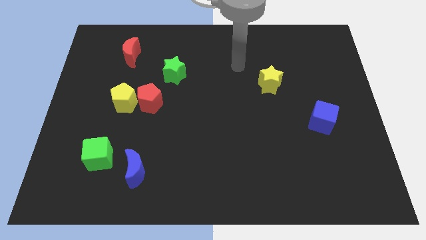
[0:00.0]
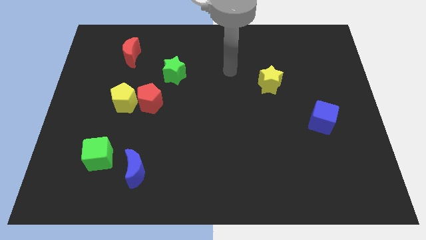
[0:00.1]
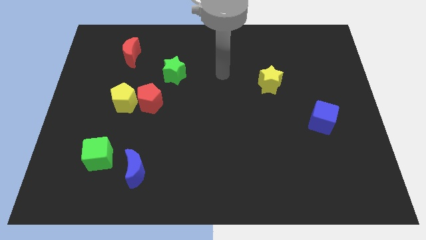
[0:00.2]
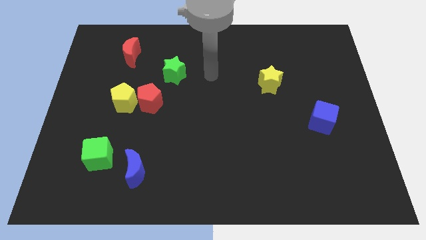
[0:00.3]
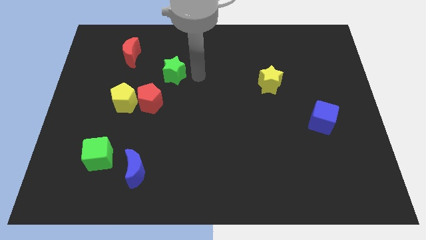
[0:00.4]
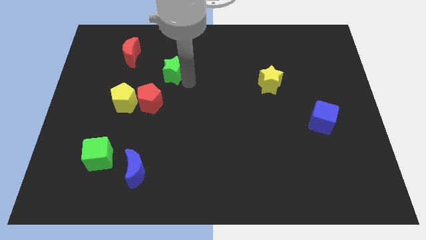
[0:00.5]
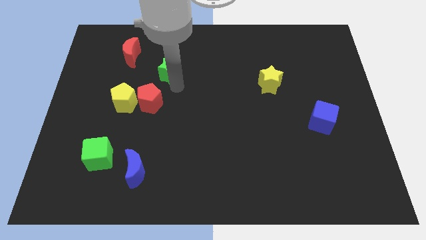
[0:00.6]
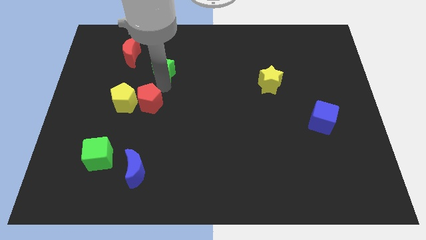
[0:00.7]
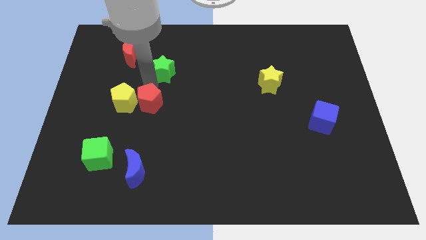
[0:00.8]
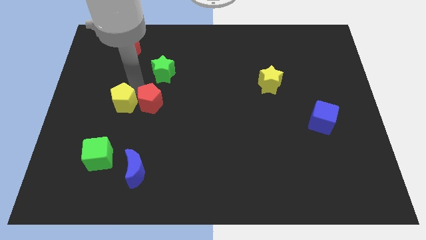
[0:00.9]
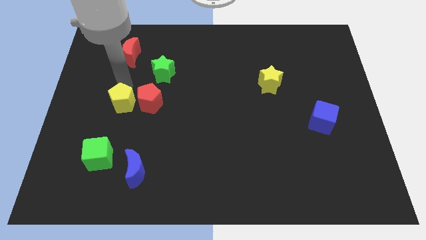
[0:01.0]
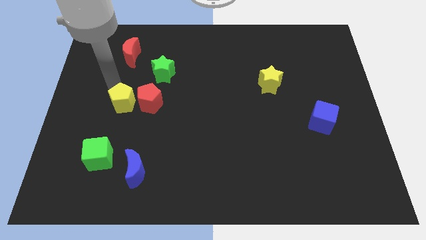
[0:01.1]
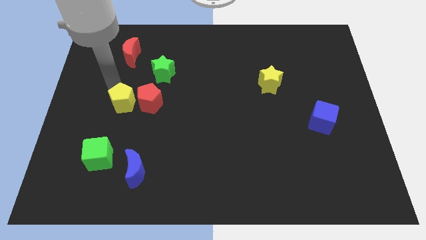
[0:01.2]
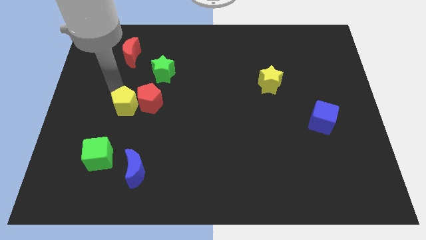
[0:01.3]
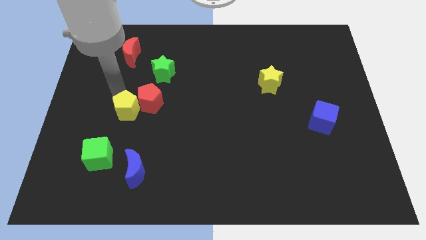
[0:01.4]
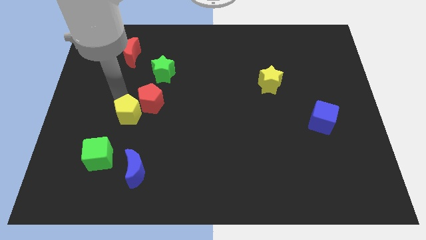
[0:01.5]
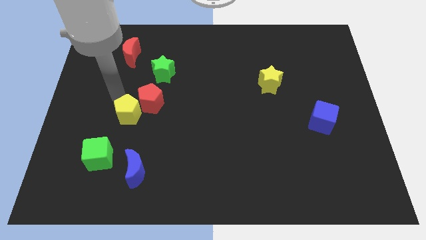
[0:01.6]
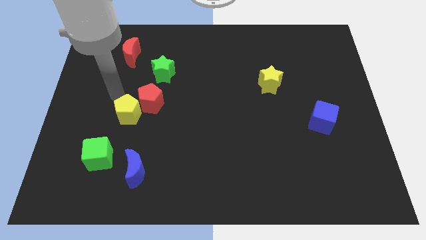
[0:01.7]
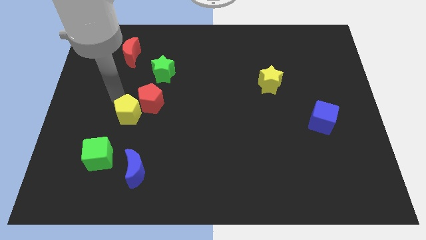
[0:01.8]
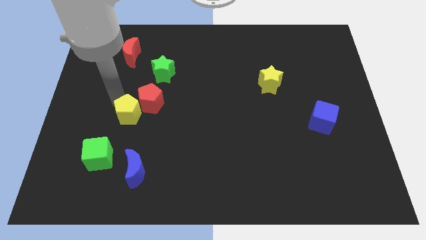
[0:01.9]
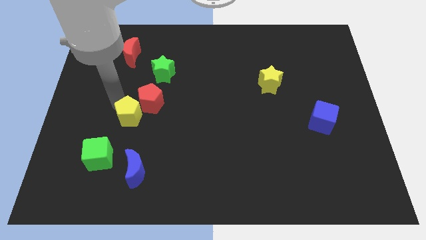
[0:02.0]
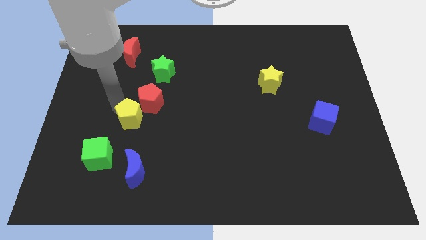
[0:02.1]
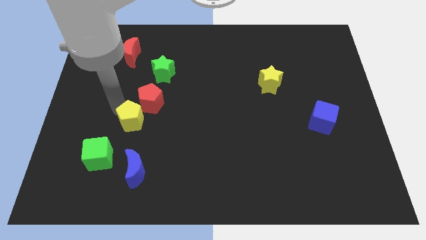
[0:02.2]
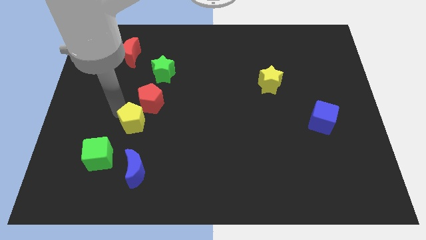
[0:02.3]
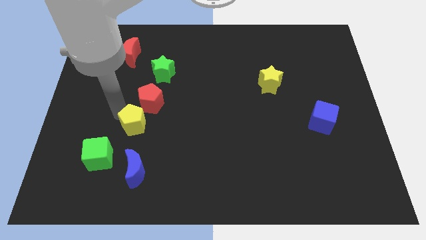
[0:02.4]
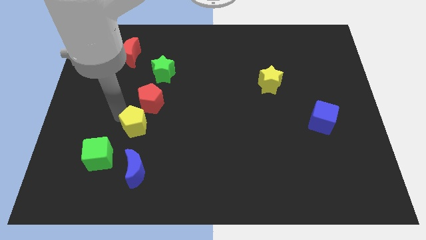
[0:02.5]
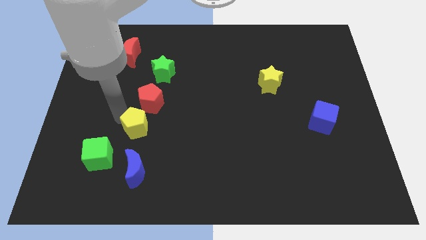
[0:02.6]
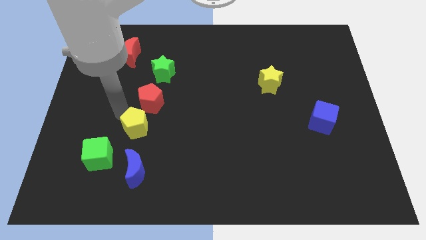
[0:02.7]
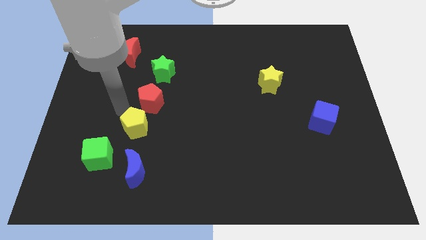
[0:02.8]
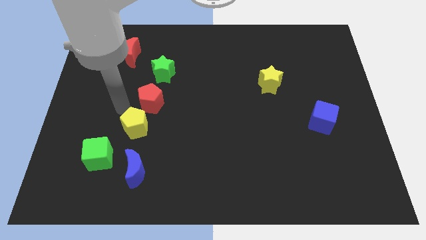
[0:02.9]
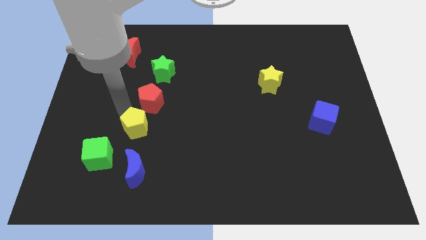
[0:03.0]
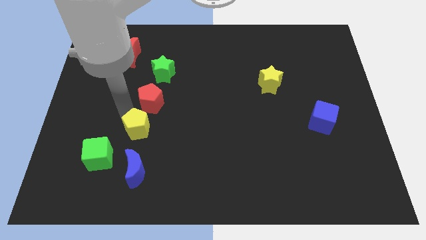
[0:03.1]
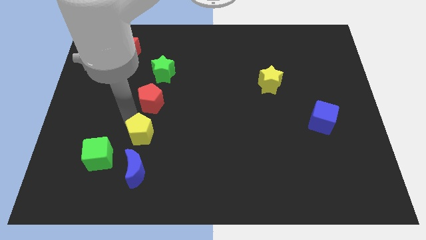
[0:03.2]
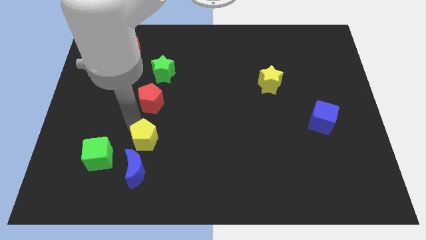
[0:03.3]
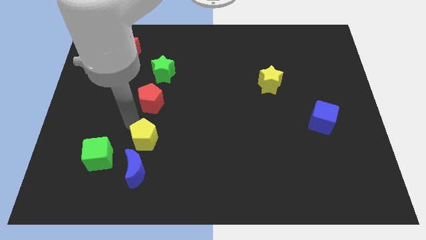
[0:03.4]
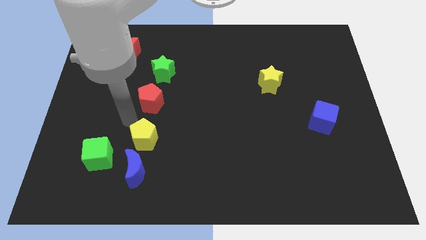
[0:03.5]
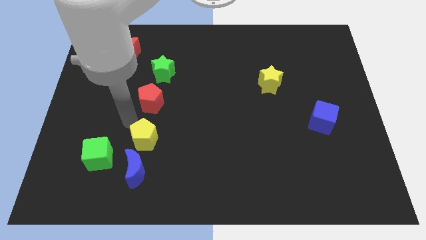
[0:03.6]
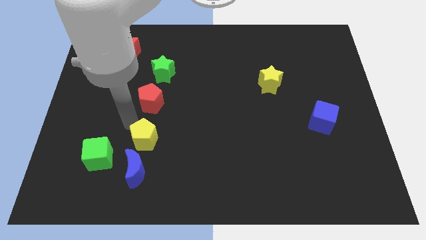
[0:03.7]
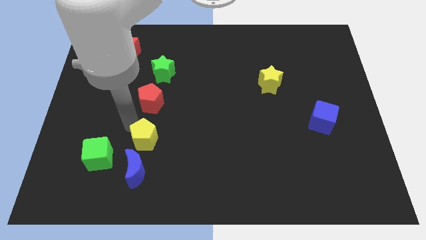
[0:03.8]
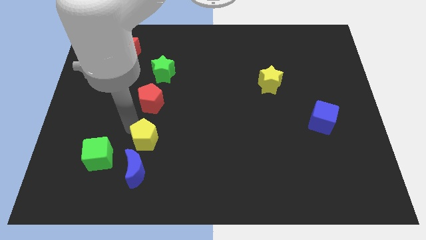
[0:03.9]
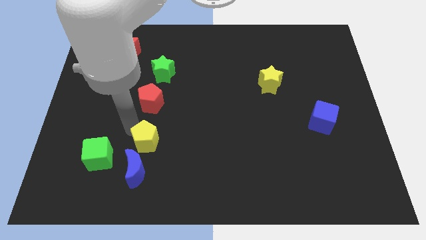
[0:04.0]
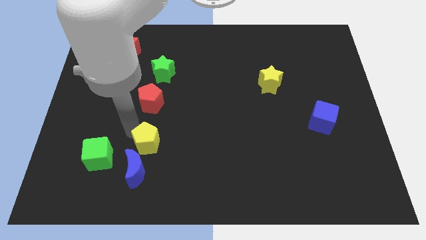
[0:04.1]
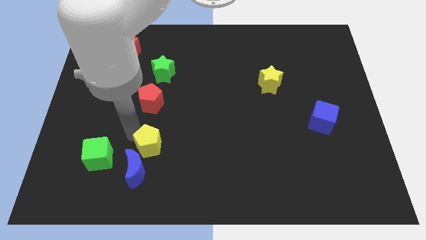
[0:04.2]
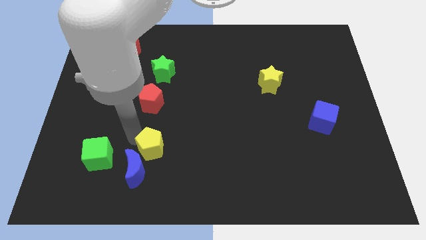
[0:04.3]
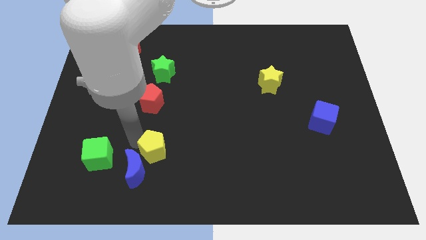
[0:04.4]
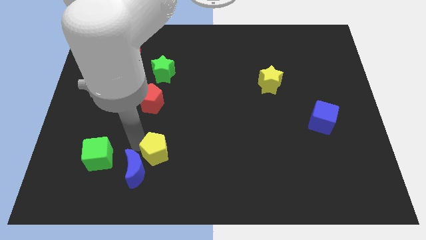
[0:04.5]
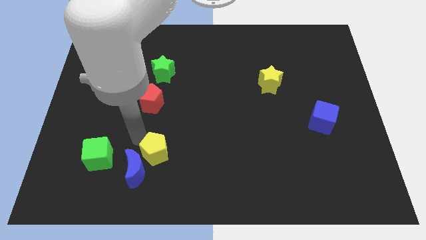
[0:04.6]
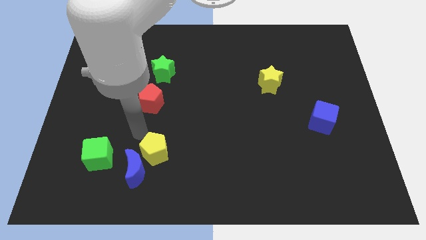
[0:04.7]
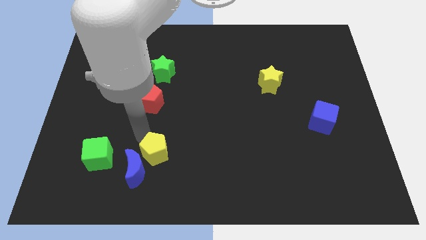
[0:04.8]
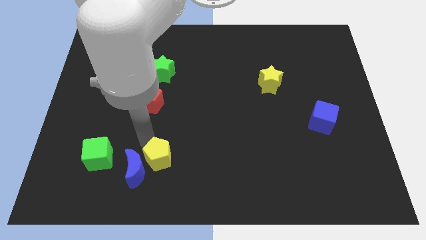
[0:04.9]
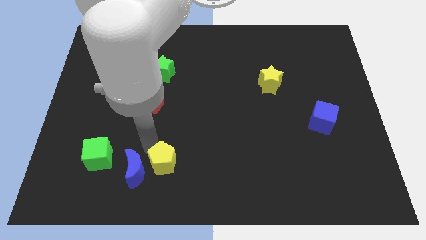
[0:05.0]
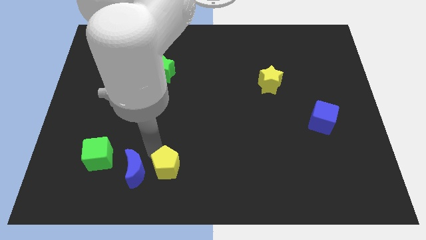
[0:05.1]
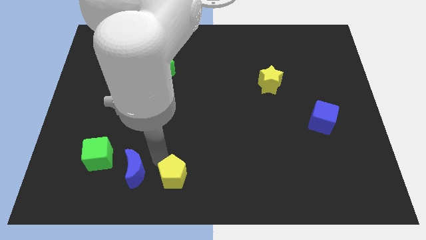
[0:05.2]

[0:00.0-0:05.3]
push the yellow pentagon to the bottom side

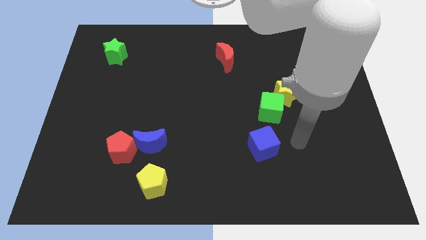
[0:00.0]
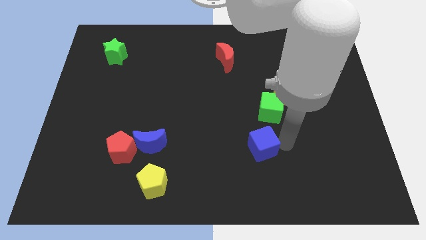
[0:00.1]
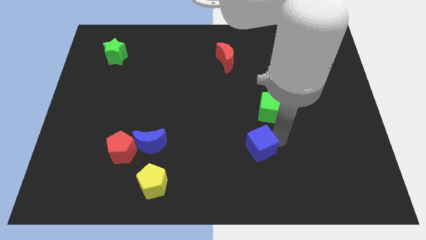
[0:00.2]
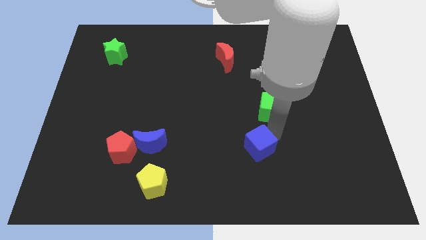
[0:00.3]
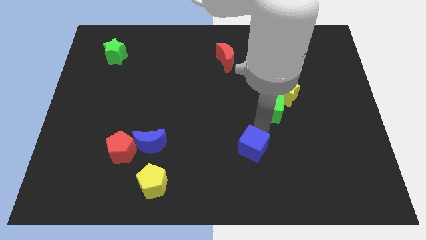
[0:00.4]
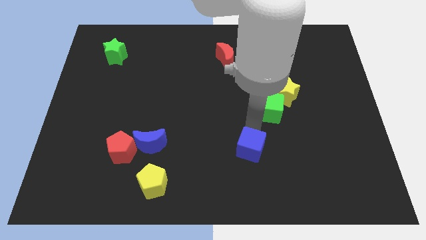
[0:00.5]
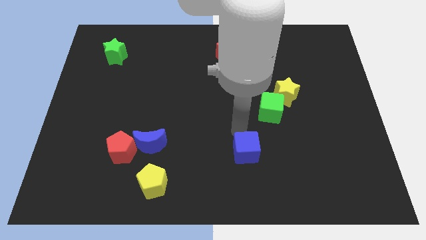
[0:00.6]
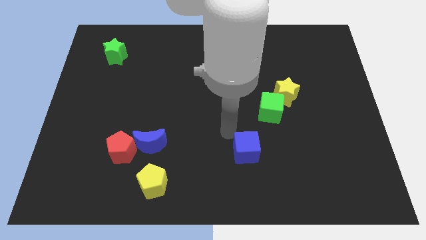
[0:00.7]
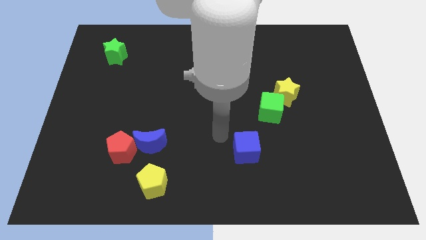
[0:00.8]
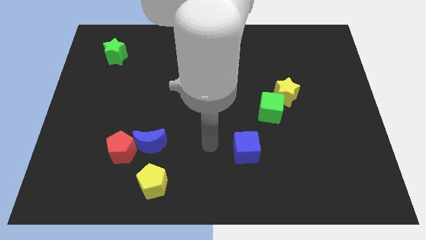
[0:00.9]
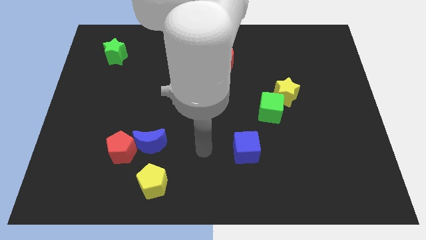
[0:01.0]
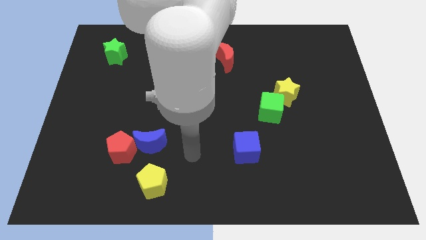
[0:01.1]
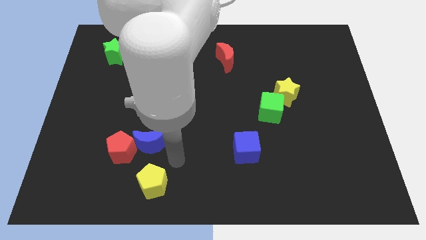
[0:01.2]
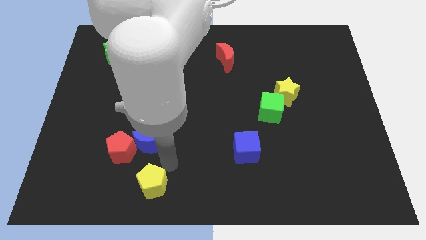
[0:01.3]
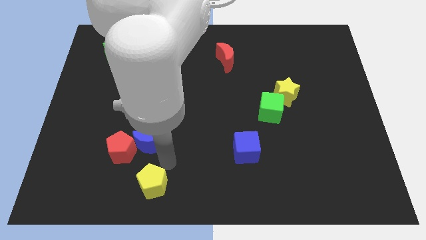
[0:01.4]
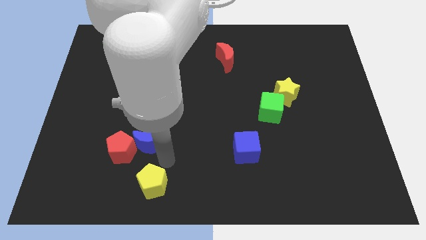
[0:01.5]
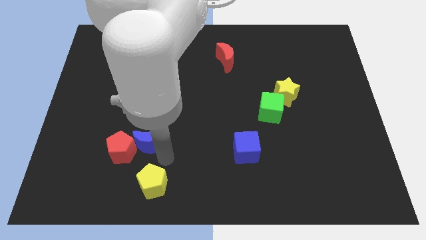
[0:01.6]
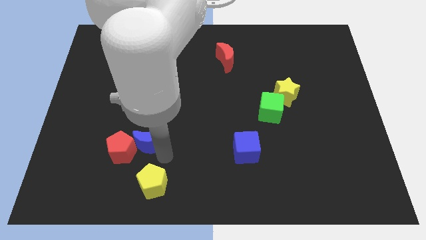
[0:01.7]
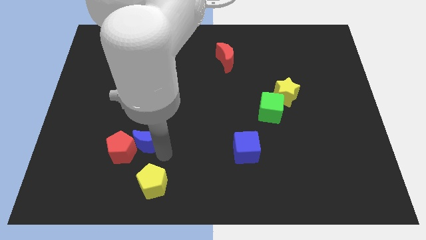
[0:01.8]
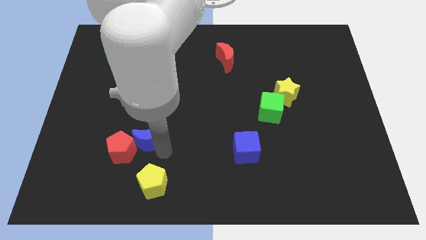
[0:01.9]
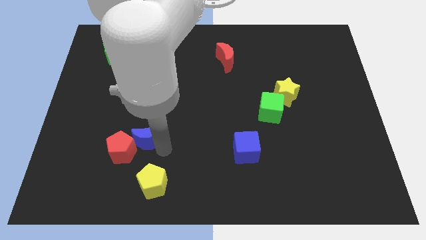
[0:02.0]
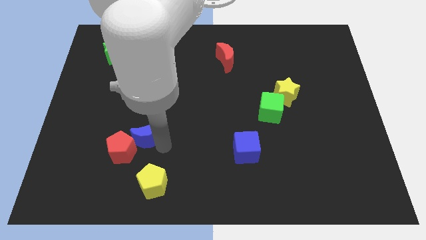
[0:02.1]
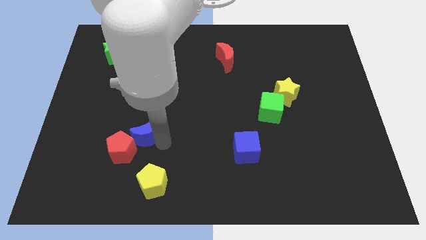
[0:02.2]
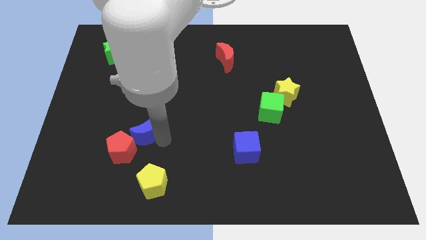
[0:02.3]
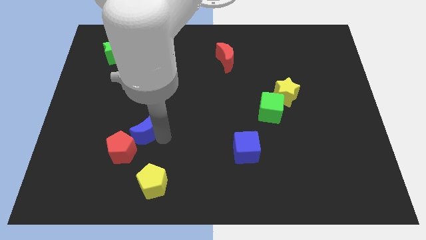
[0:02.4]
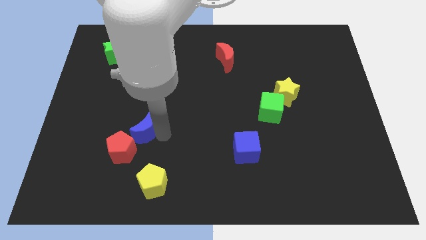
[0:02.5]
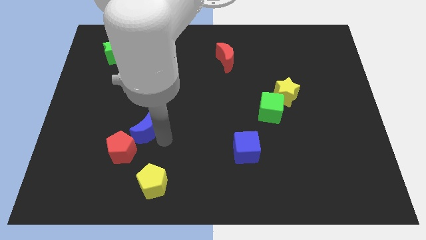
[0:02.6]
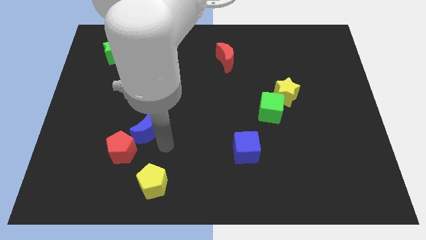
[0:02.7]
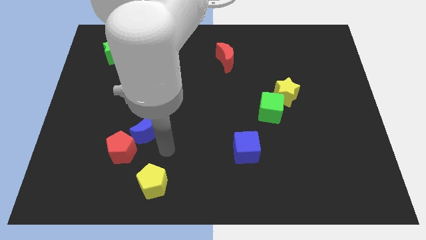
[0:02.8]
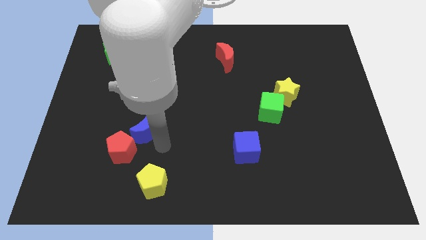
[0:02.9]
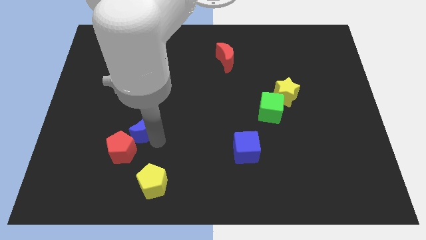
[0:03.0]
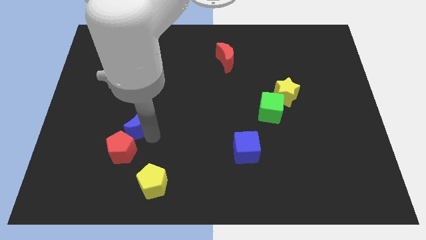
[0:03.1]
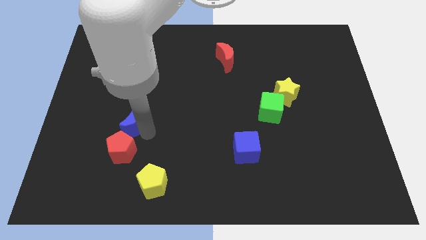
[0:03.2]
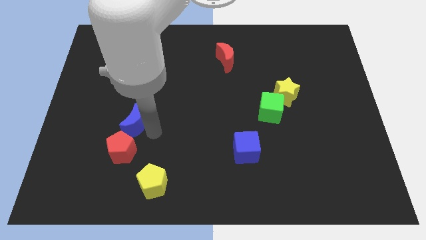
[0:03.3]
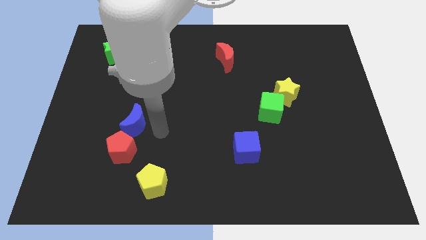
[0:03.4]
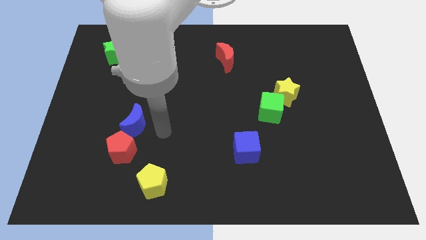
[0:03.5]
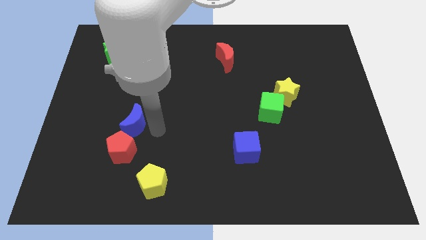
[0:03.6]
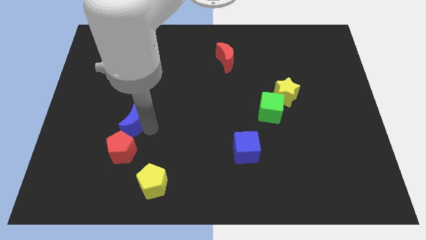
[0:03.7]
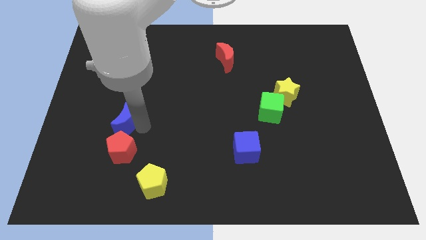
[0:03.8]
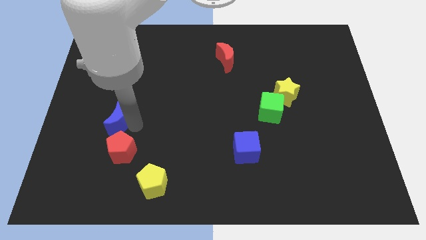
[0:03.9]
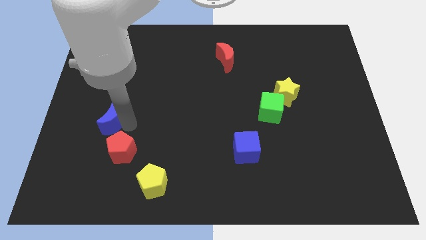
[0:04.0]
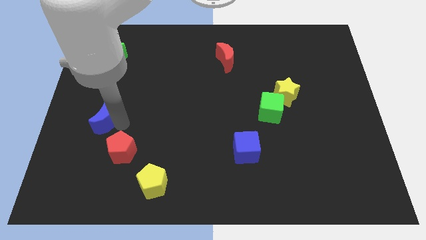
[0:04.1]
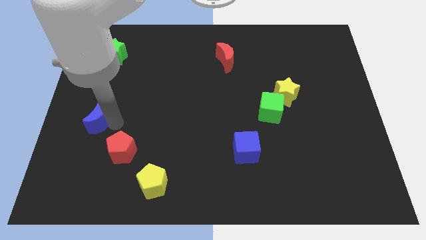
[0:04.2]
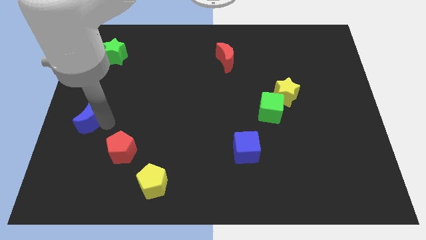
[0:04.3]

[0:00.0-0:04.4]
move the blue moon to the center left
